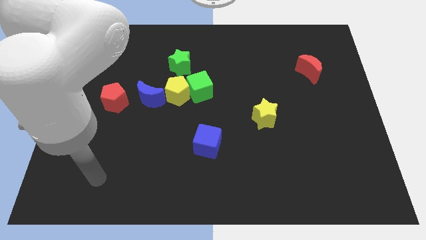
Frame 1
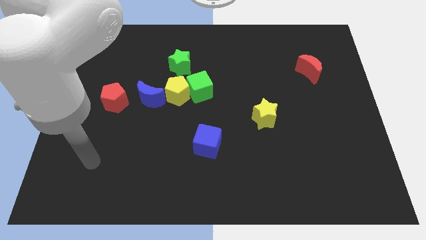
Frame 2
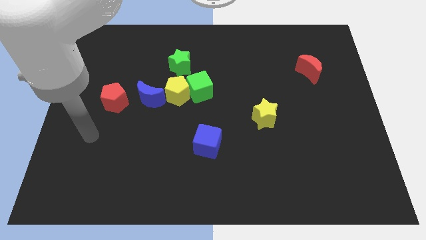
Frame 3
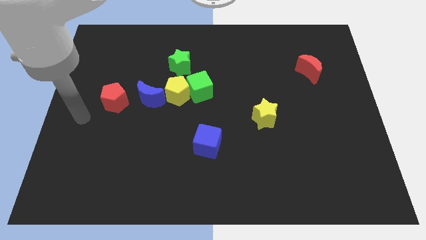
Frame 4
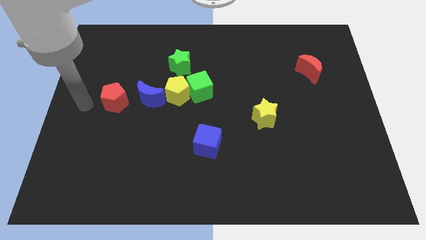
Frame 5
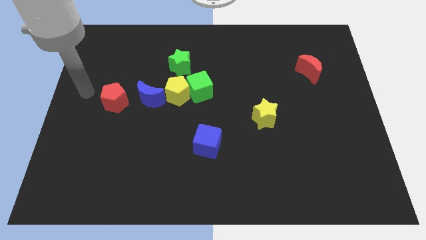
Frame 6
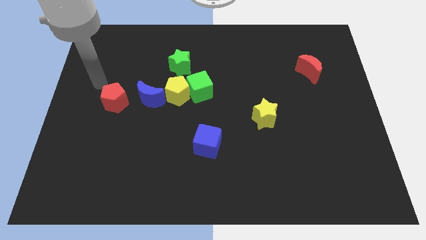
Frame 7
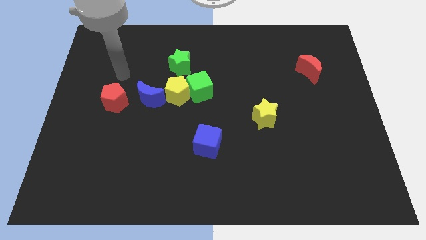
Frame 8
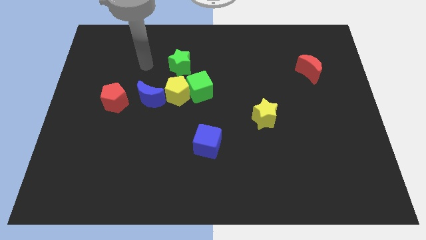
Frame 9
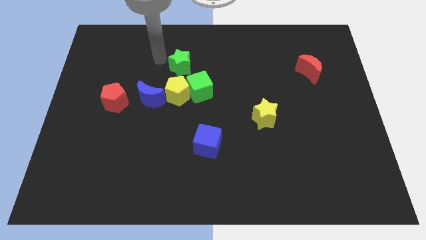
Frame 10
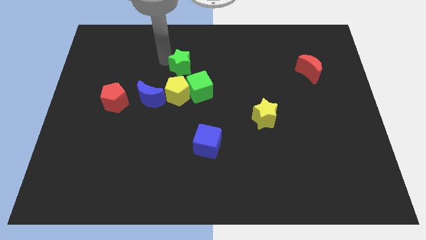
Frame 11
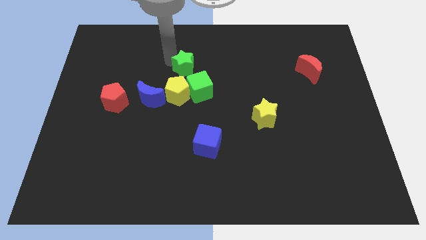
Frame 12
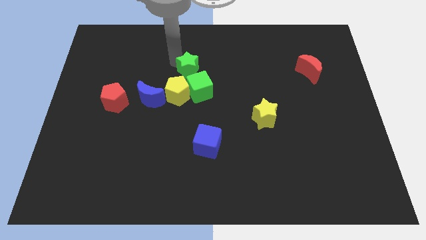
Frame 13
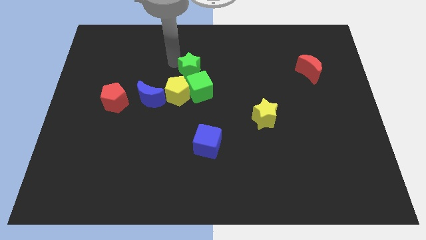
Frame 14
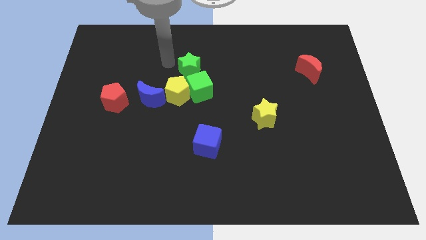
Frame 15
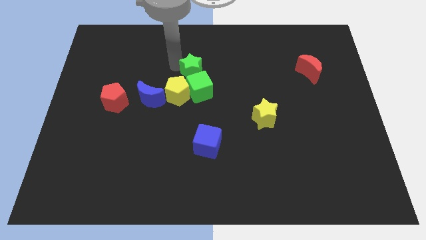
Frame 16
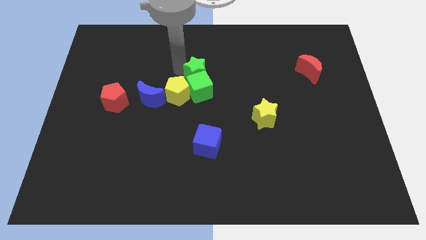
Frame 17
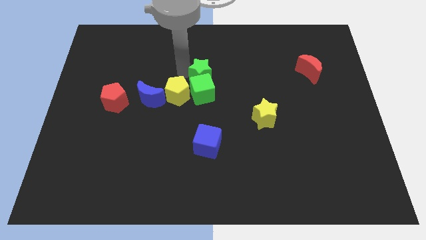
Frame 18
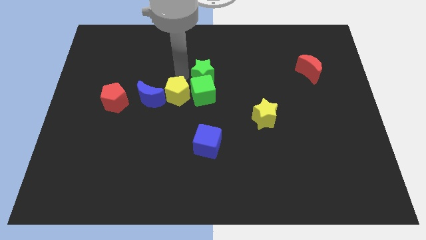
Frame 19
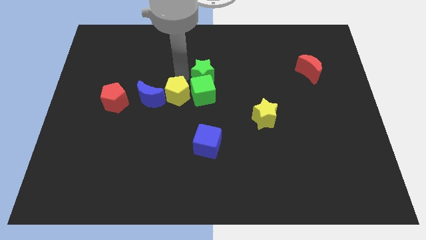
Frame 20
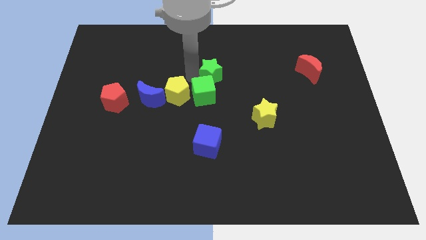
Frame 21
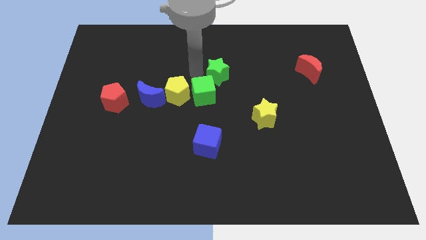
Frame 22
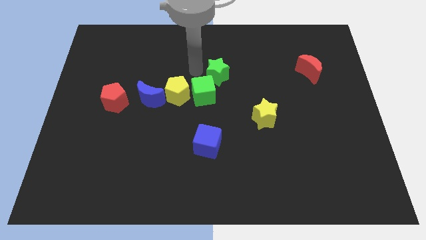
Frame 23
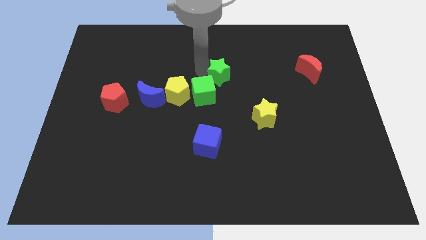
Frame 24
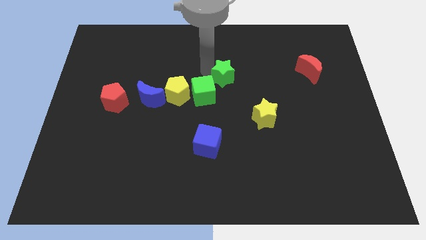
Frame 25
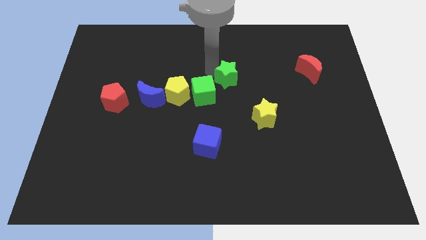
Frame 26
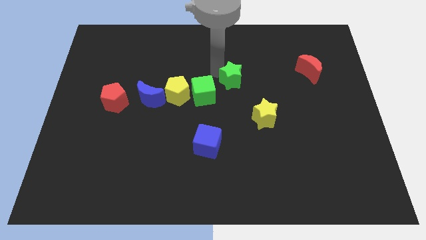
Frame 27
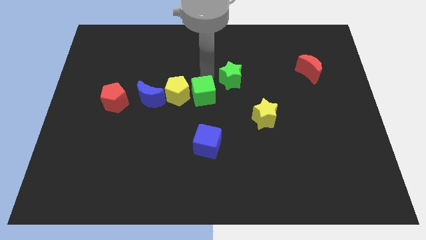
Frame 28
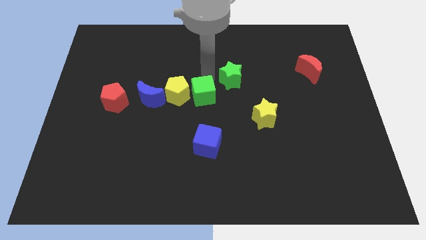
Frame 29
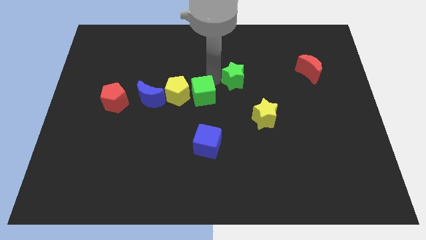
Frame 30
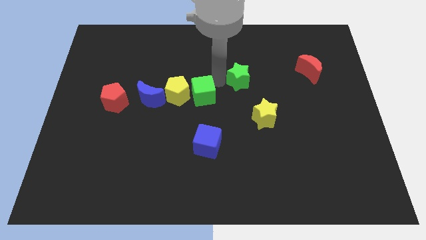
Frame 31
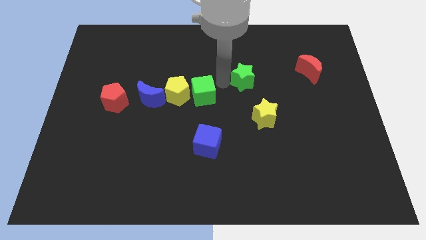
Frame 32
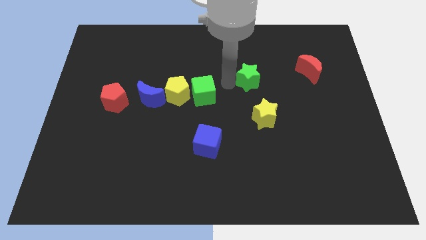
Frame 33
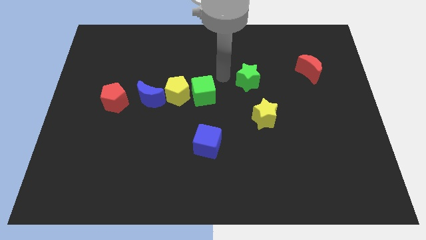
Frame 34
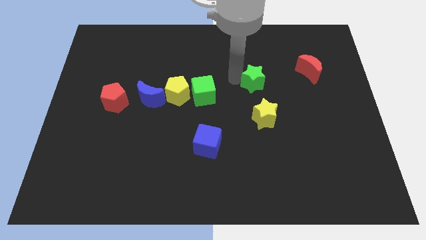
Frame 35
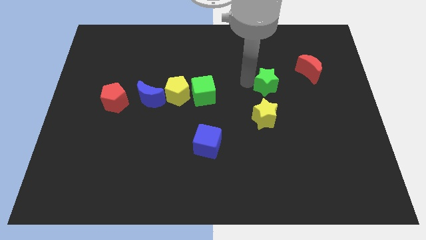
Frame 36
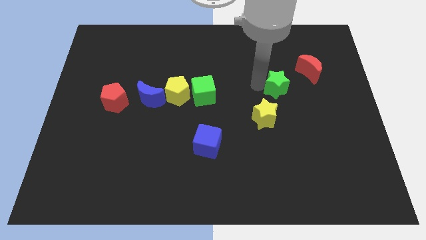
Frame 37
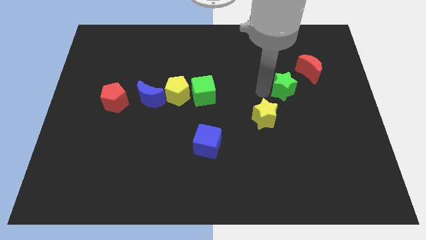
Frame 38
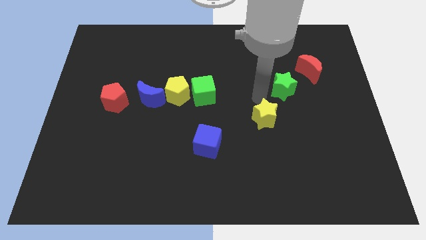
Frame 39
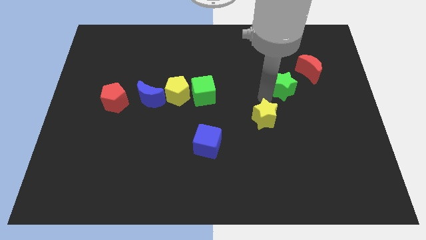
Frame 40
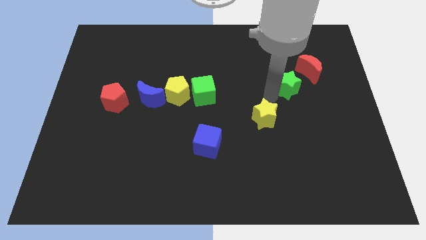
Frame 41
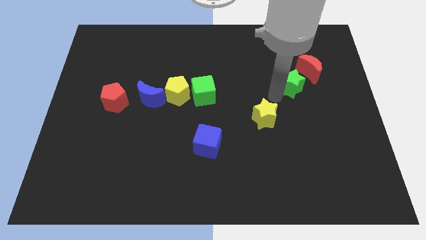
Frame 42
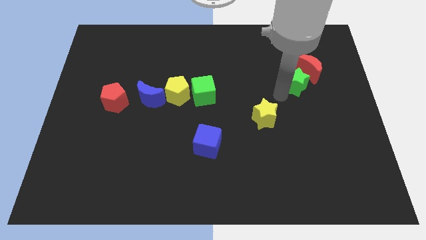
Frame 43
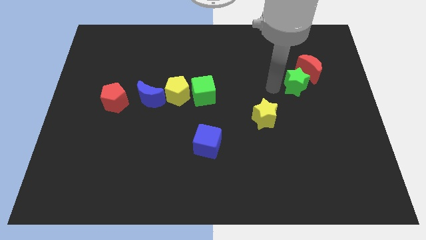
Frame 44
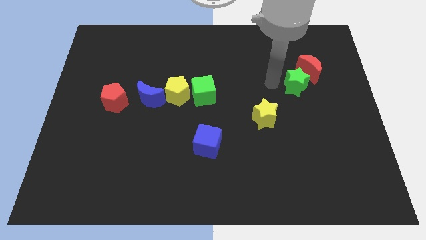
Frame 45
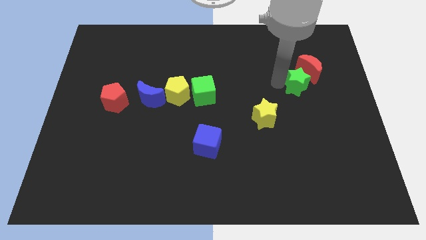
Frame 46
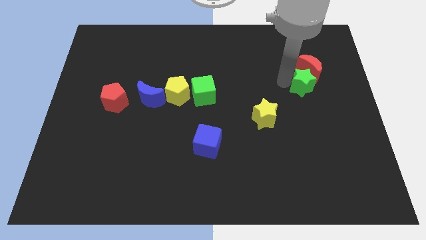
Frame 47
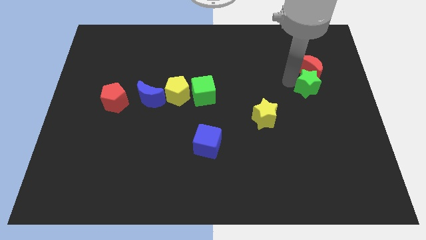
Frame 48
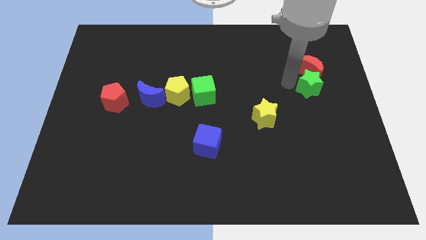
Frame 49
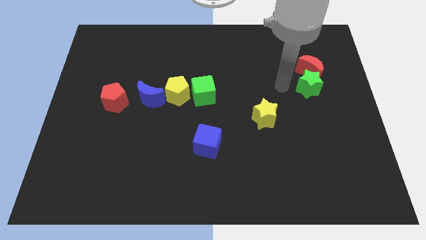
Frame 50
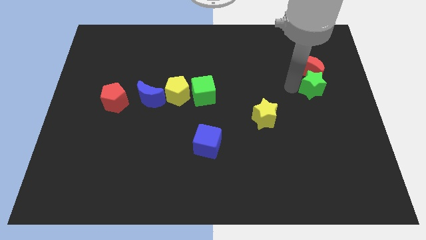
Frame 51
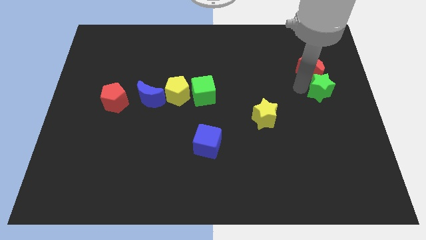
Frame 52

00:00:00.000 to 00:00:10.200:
put the green star to the right side of the board

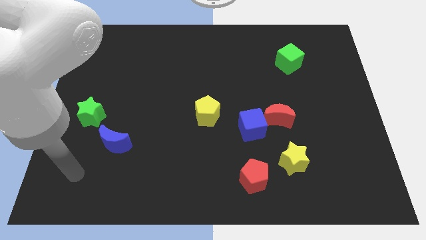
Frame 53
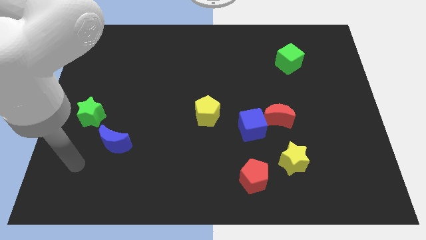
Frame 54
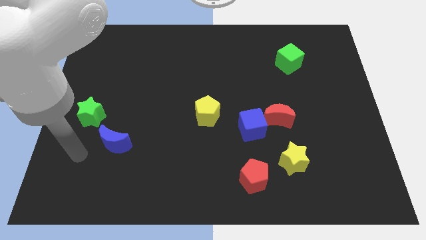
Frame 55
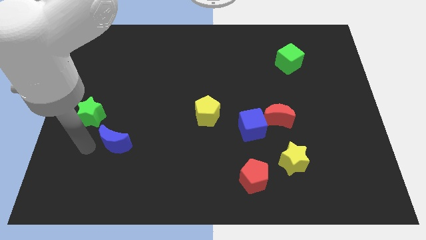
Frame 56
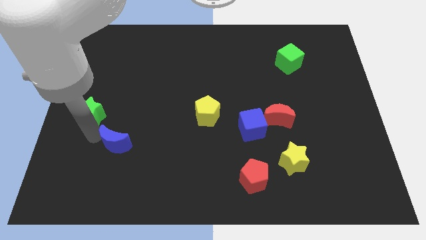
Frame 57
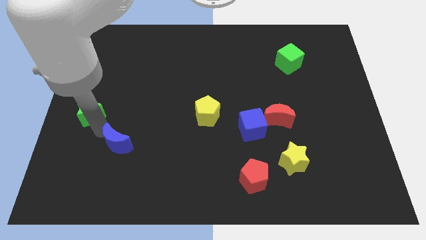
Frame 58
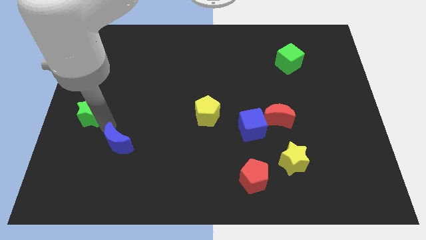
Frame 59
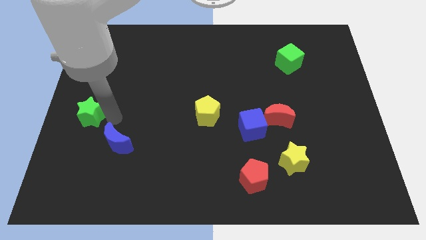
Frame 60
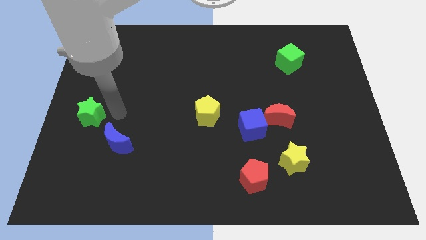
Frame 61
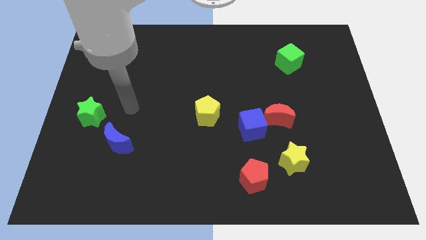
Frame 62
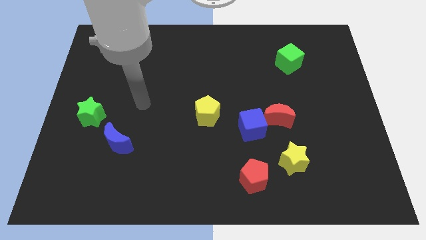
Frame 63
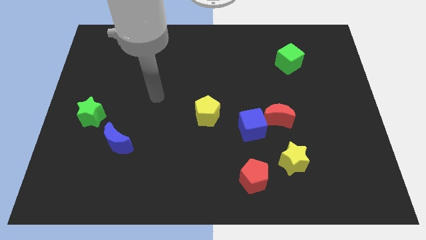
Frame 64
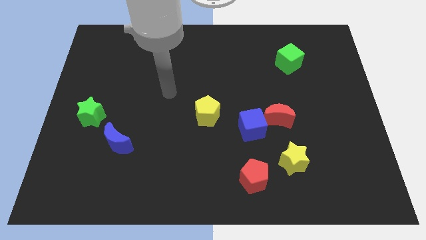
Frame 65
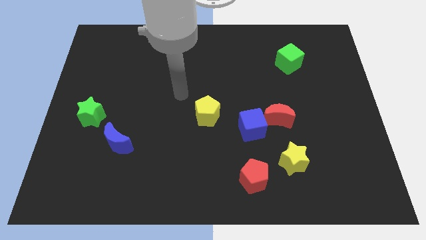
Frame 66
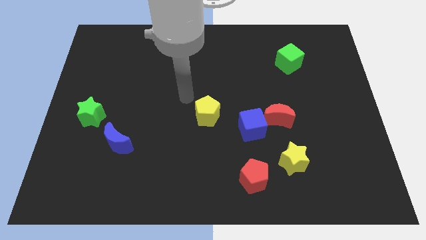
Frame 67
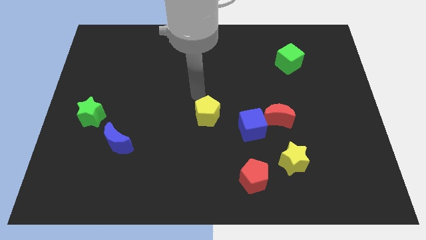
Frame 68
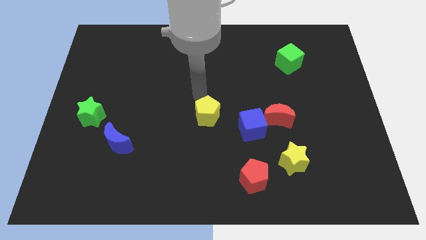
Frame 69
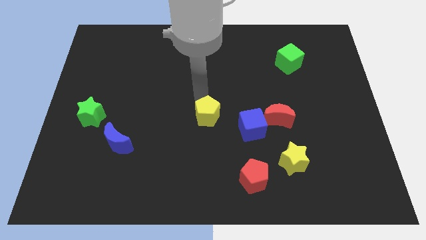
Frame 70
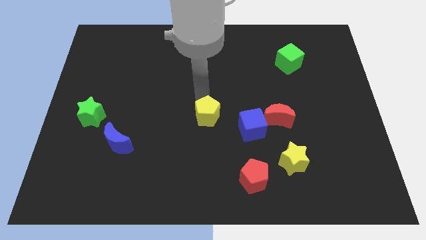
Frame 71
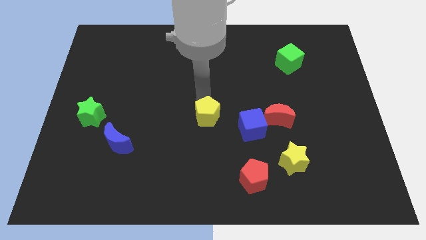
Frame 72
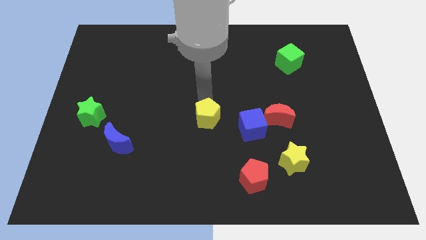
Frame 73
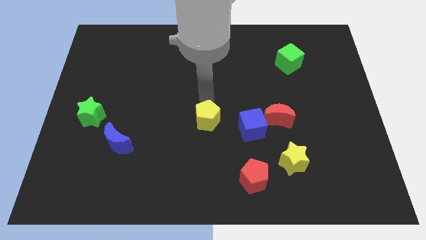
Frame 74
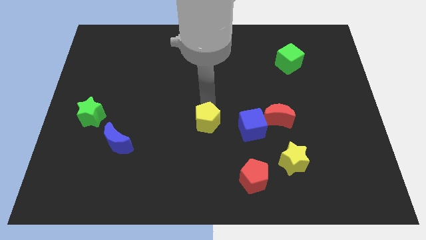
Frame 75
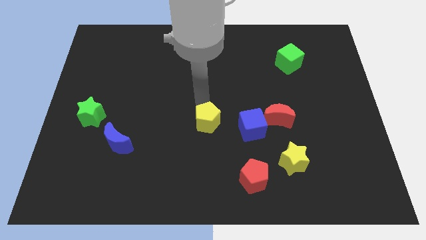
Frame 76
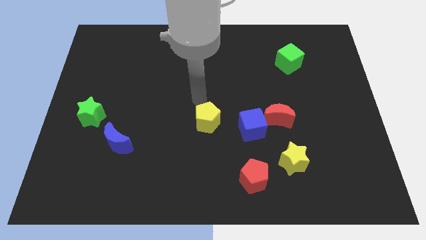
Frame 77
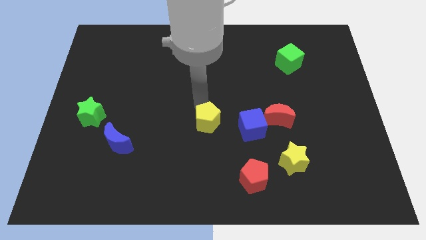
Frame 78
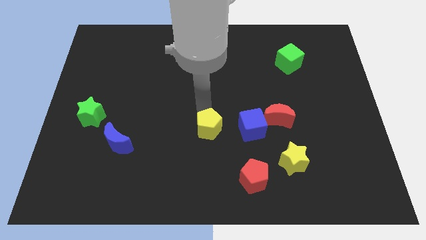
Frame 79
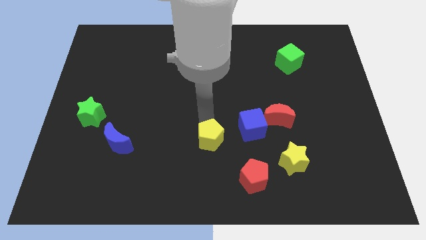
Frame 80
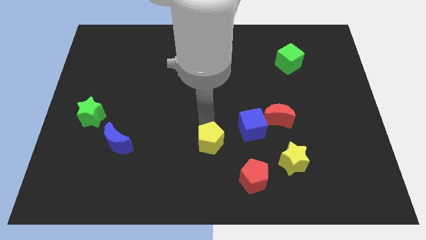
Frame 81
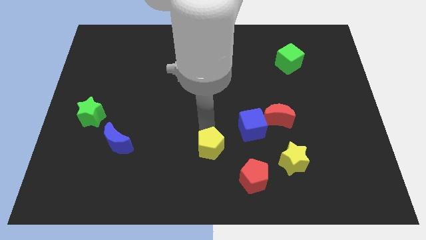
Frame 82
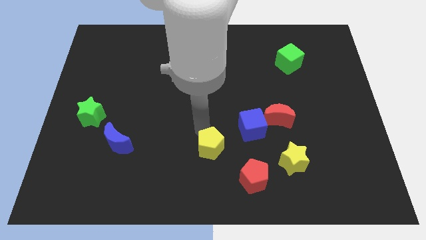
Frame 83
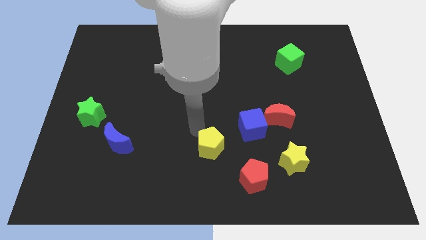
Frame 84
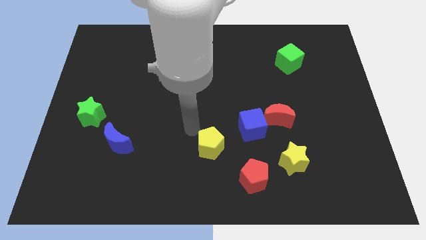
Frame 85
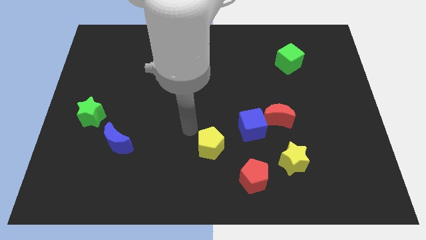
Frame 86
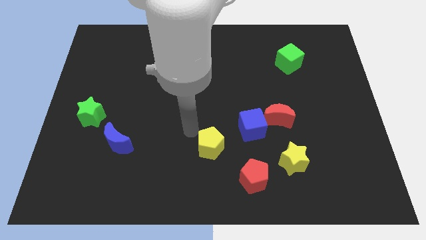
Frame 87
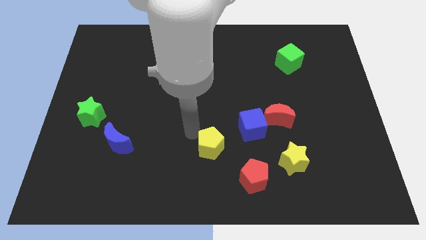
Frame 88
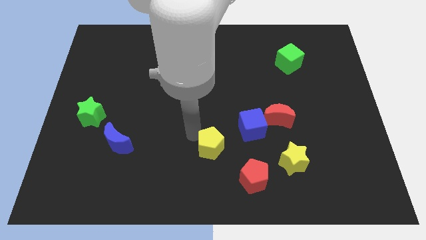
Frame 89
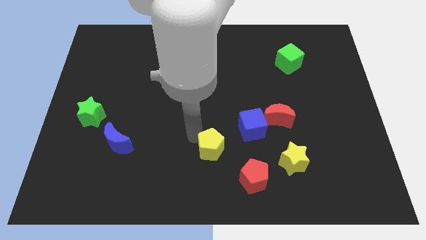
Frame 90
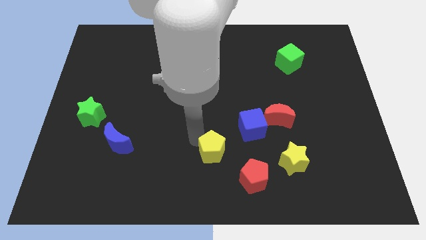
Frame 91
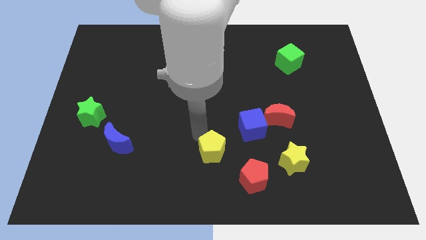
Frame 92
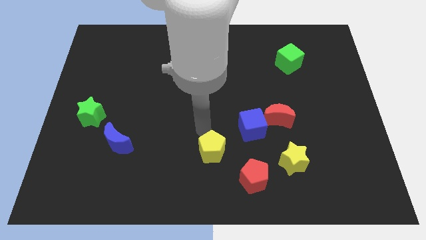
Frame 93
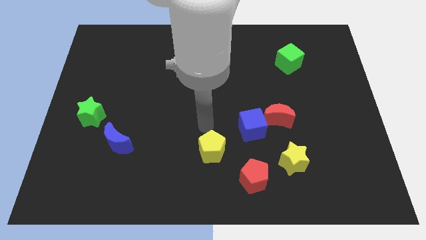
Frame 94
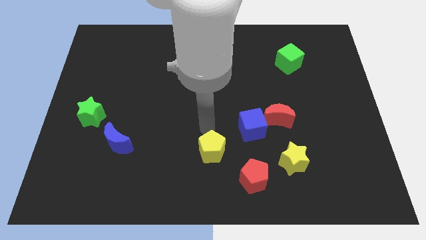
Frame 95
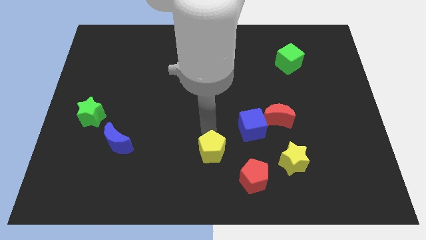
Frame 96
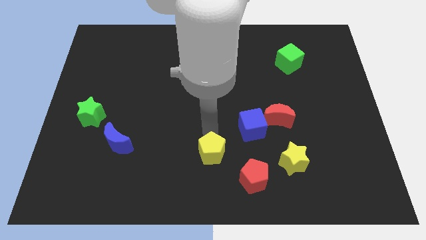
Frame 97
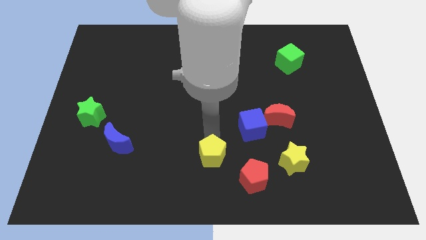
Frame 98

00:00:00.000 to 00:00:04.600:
move the yellow pentagon to the bottom side
